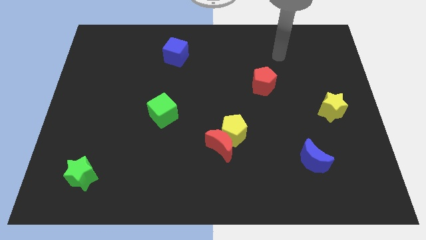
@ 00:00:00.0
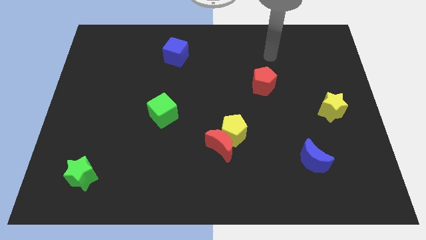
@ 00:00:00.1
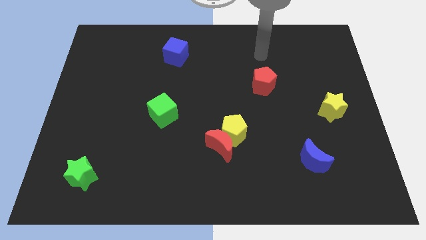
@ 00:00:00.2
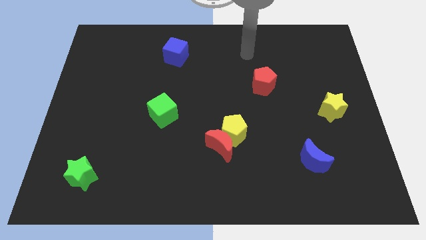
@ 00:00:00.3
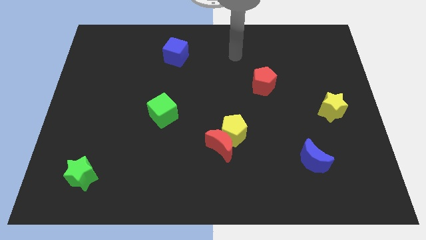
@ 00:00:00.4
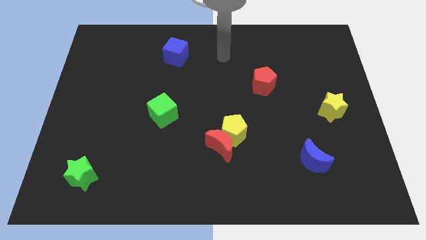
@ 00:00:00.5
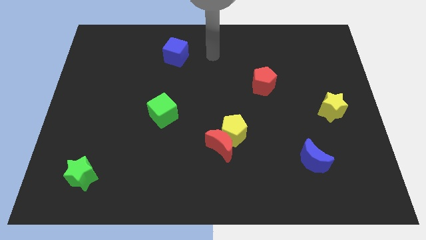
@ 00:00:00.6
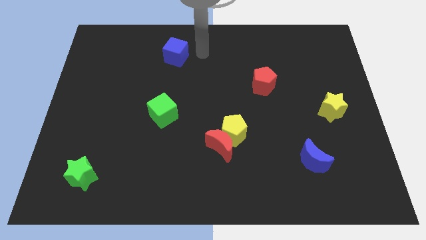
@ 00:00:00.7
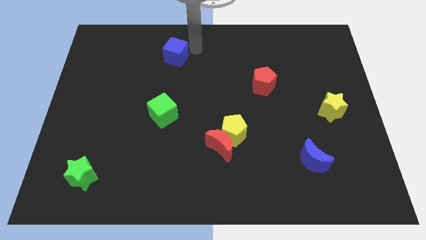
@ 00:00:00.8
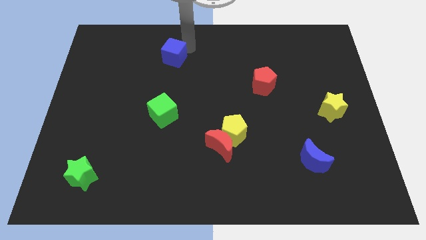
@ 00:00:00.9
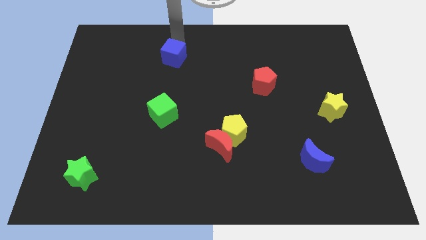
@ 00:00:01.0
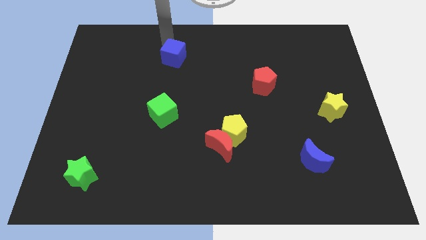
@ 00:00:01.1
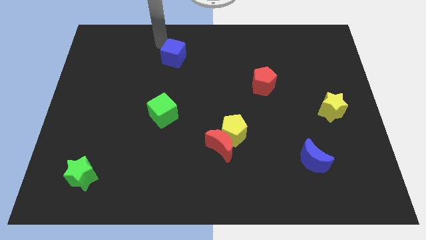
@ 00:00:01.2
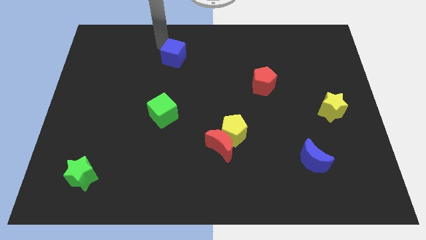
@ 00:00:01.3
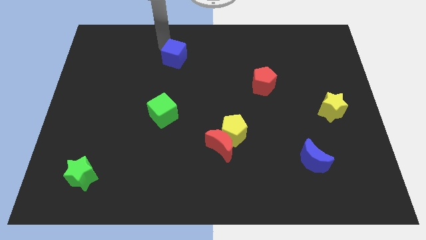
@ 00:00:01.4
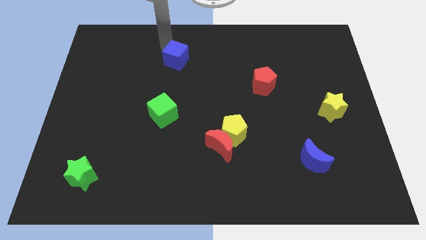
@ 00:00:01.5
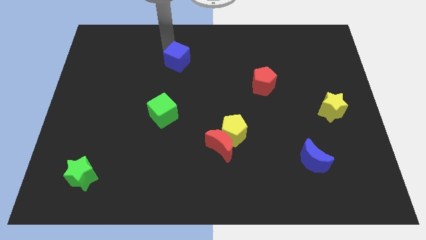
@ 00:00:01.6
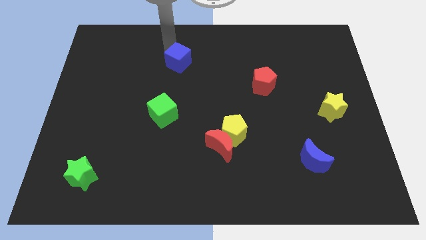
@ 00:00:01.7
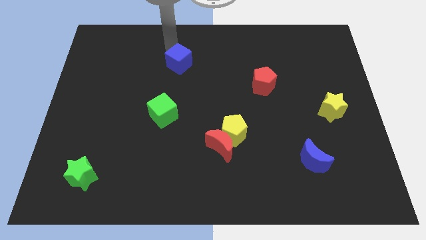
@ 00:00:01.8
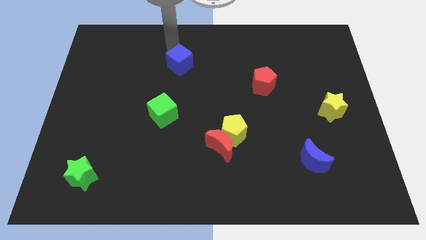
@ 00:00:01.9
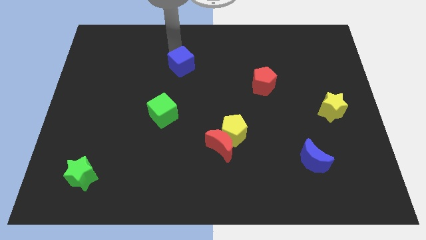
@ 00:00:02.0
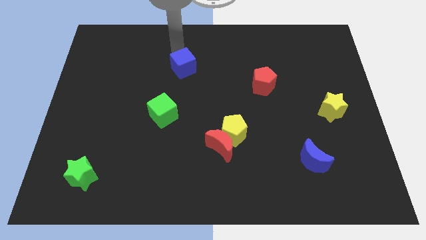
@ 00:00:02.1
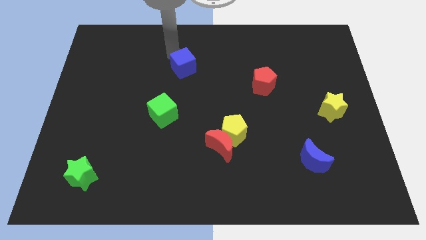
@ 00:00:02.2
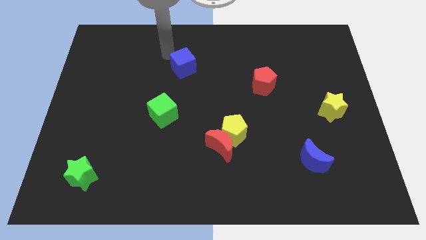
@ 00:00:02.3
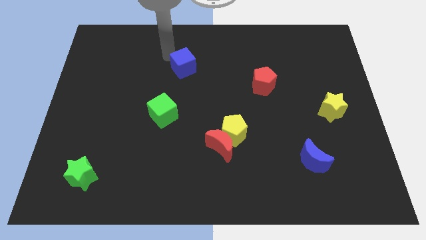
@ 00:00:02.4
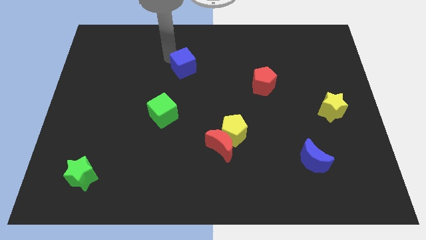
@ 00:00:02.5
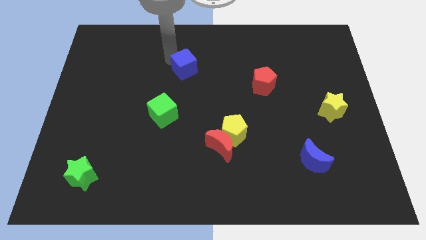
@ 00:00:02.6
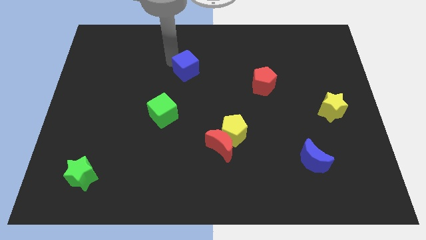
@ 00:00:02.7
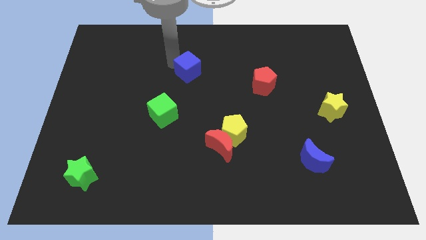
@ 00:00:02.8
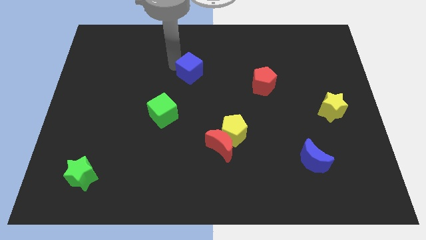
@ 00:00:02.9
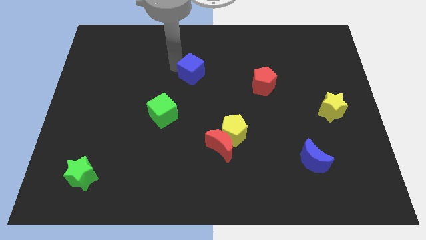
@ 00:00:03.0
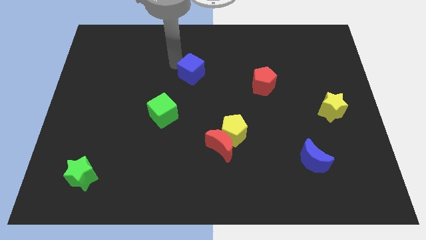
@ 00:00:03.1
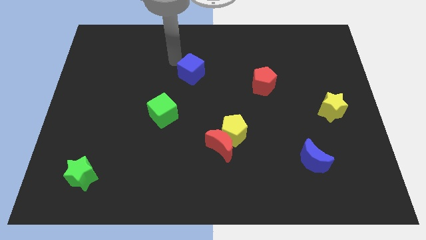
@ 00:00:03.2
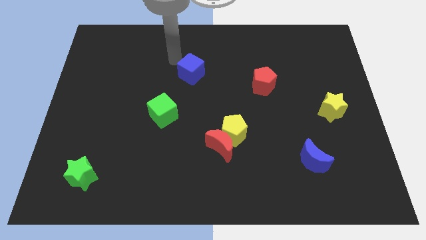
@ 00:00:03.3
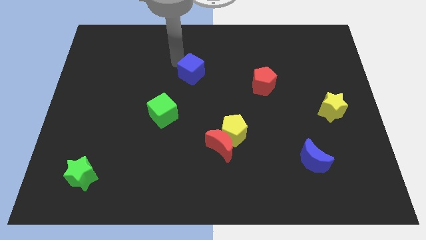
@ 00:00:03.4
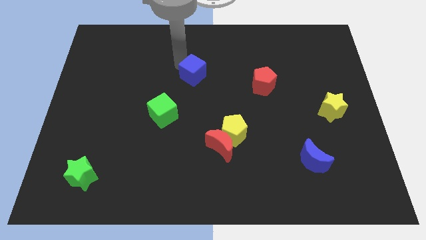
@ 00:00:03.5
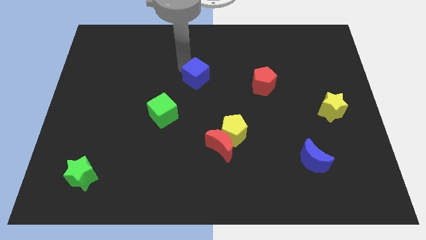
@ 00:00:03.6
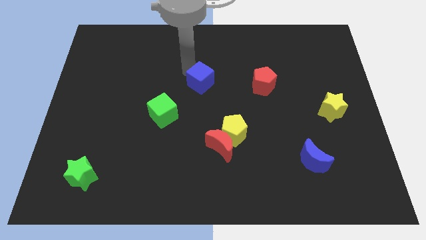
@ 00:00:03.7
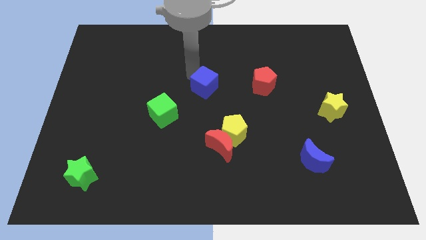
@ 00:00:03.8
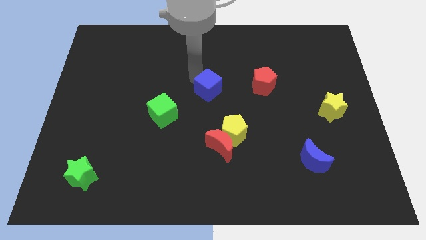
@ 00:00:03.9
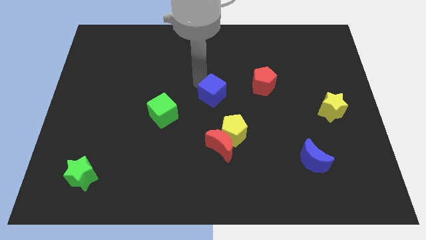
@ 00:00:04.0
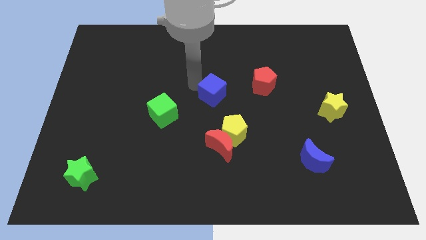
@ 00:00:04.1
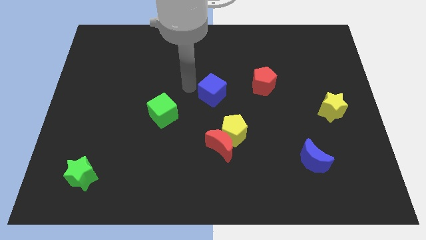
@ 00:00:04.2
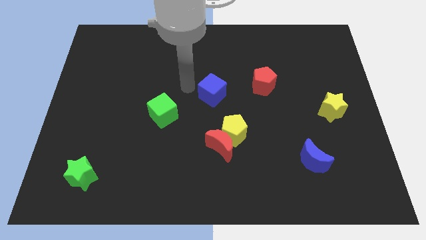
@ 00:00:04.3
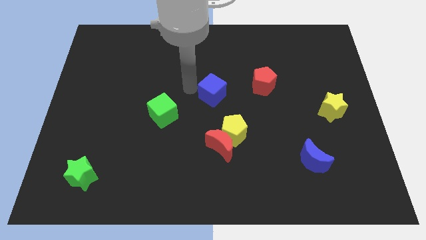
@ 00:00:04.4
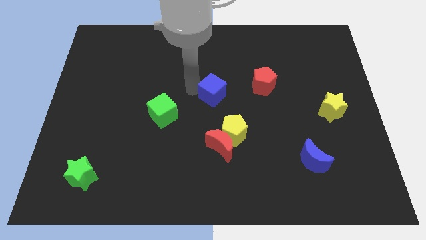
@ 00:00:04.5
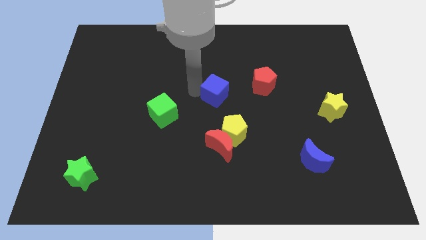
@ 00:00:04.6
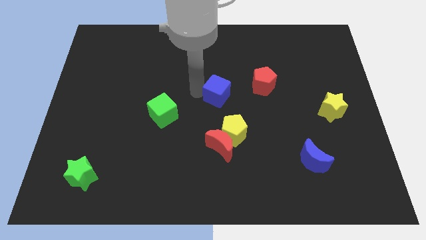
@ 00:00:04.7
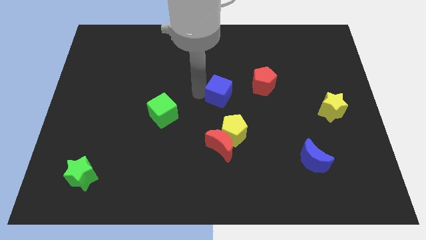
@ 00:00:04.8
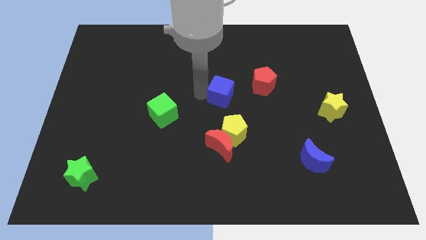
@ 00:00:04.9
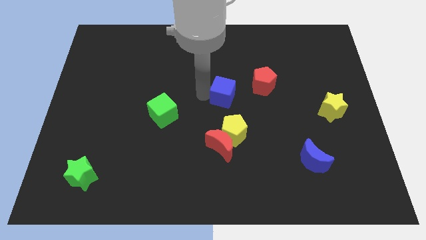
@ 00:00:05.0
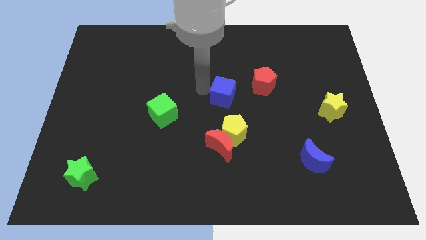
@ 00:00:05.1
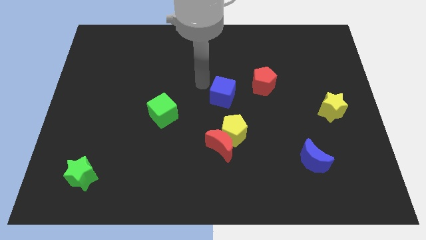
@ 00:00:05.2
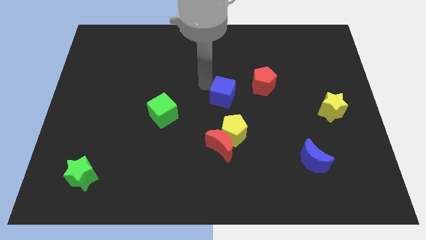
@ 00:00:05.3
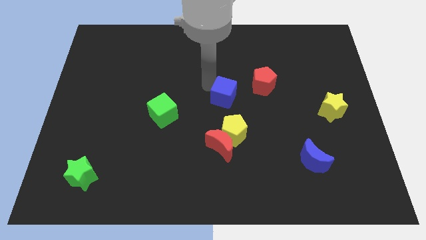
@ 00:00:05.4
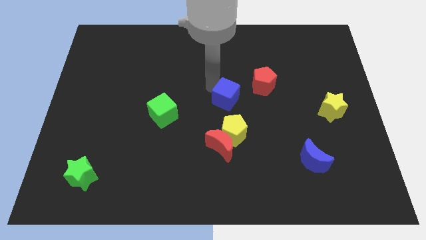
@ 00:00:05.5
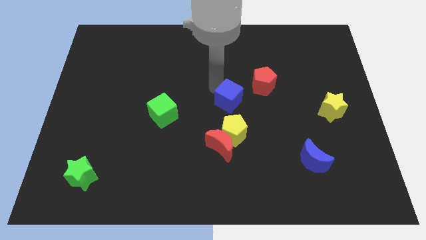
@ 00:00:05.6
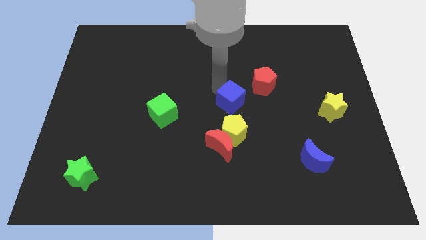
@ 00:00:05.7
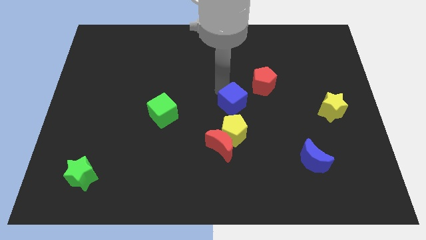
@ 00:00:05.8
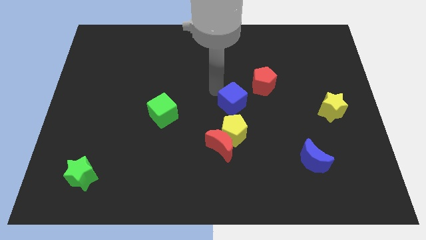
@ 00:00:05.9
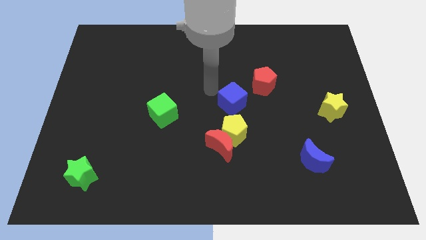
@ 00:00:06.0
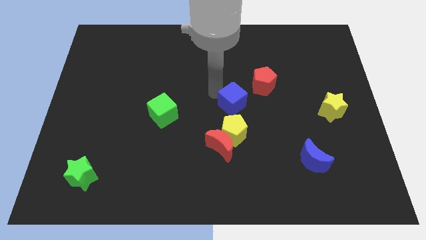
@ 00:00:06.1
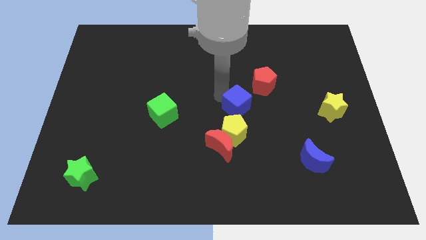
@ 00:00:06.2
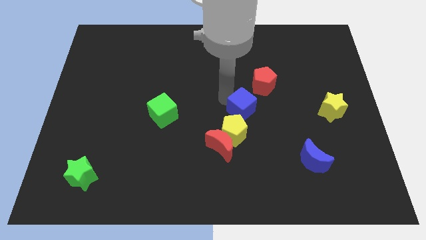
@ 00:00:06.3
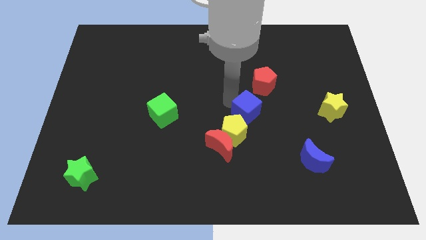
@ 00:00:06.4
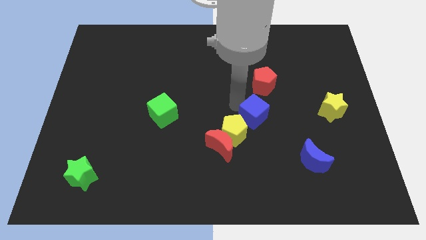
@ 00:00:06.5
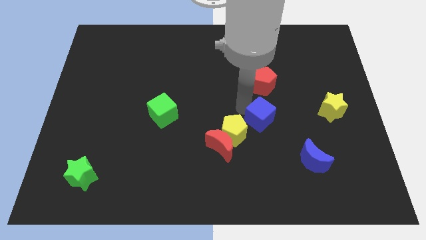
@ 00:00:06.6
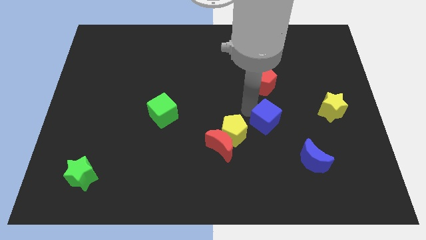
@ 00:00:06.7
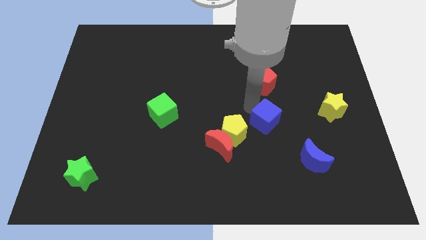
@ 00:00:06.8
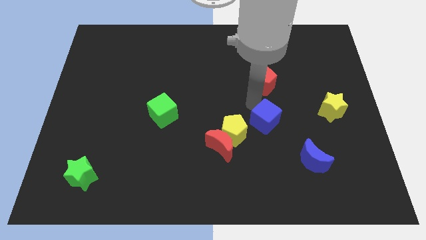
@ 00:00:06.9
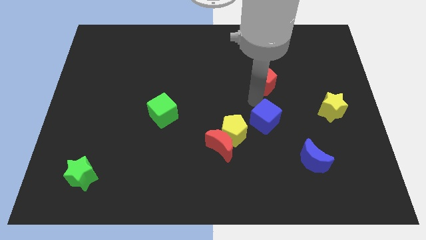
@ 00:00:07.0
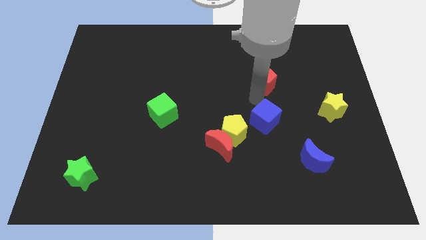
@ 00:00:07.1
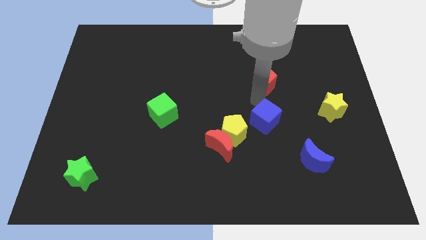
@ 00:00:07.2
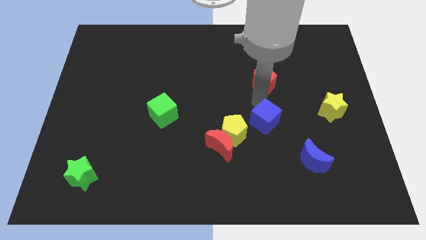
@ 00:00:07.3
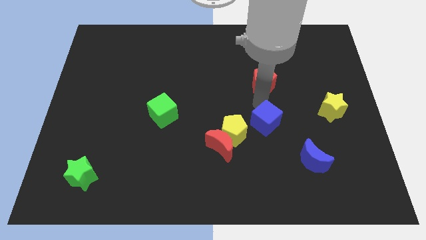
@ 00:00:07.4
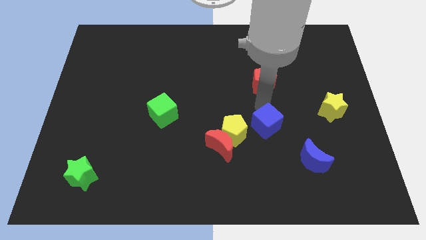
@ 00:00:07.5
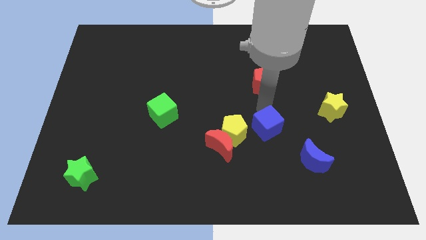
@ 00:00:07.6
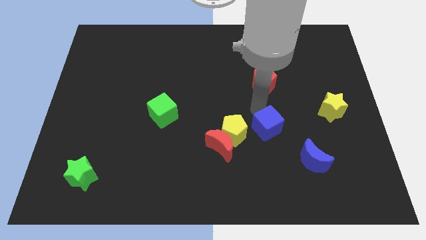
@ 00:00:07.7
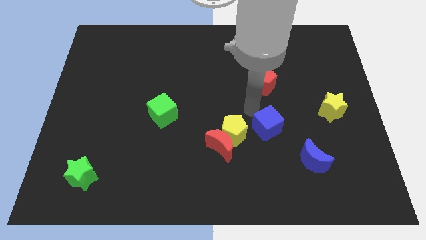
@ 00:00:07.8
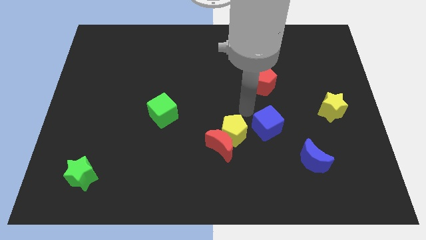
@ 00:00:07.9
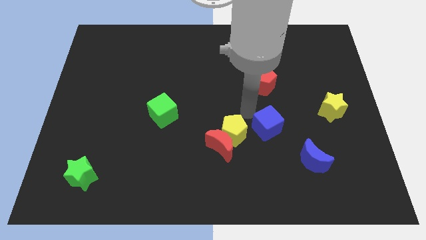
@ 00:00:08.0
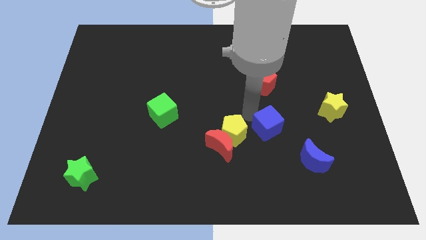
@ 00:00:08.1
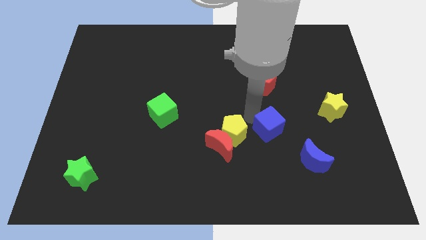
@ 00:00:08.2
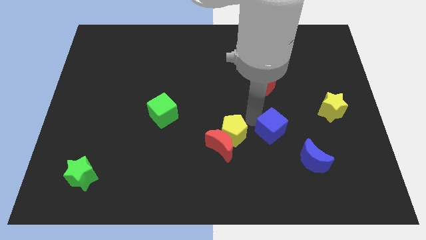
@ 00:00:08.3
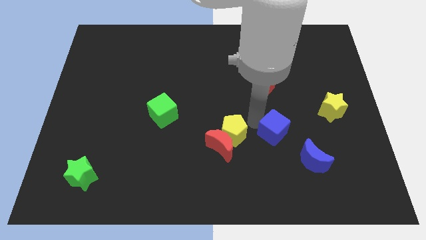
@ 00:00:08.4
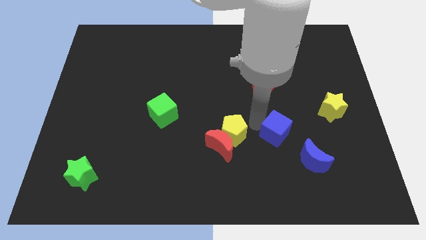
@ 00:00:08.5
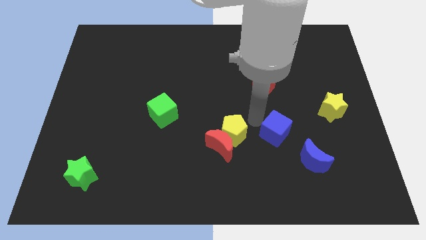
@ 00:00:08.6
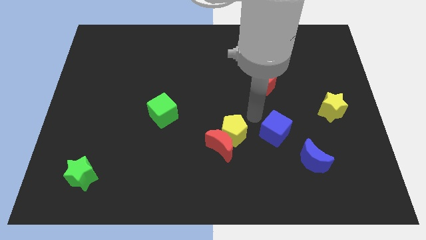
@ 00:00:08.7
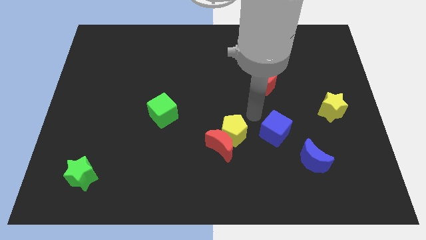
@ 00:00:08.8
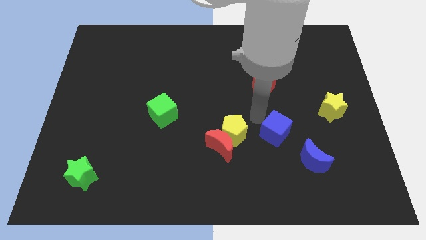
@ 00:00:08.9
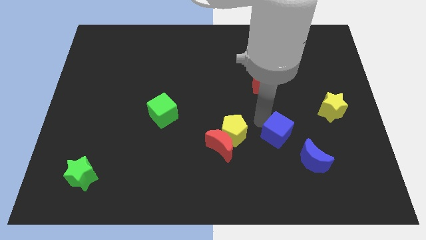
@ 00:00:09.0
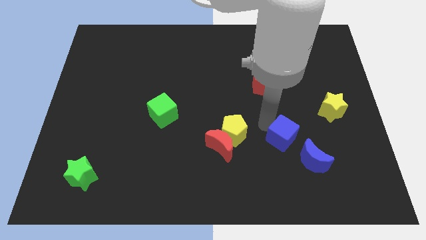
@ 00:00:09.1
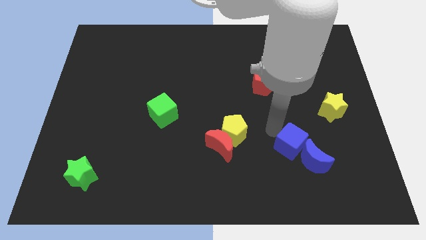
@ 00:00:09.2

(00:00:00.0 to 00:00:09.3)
move the blue cube towards the blue moon
